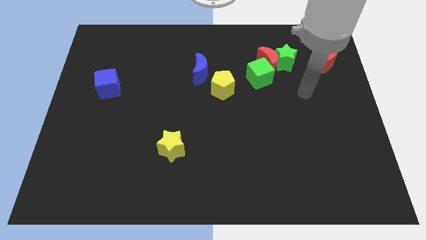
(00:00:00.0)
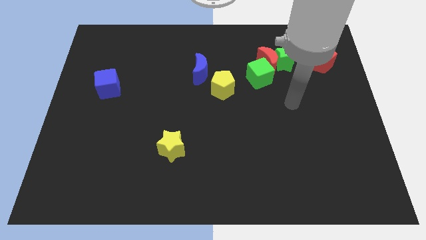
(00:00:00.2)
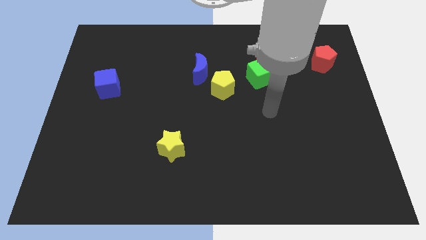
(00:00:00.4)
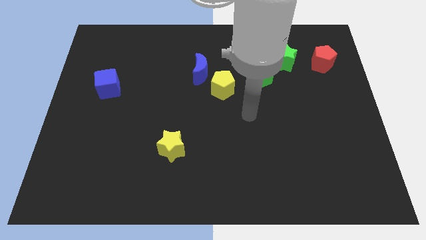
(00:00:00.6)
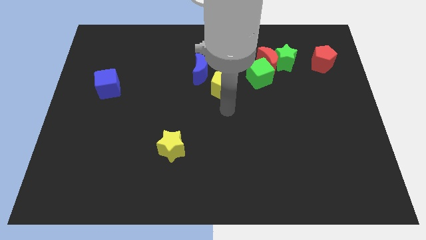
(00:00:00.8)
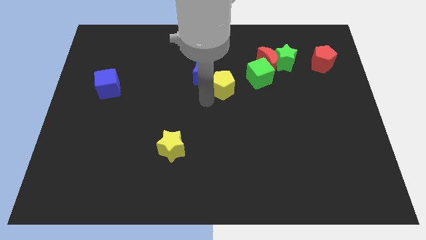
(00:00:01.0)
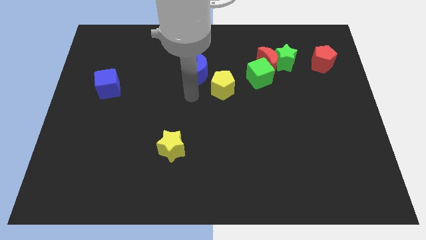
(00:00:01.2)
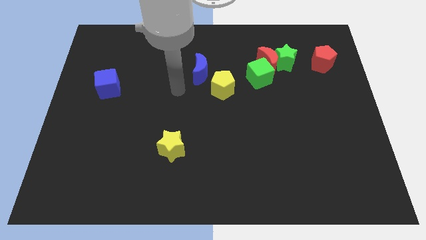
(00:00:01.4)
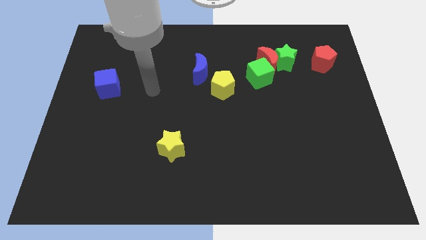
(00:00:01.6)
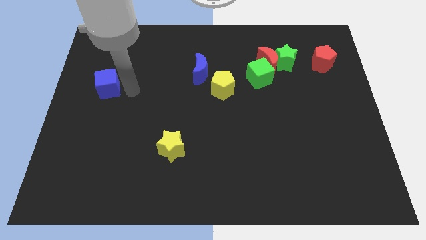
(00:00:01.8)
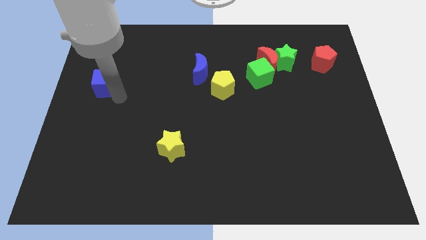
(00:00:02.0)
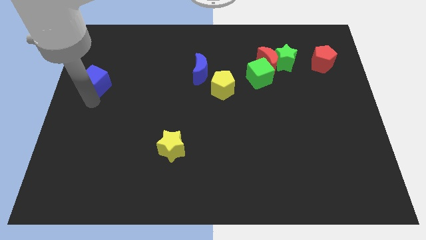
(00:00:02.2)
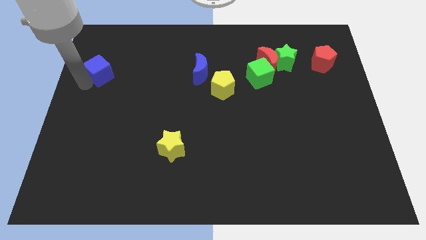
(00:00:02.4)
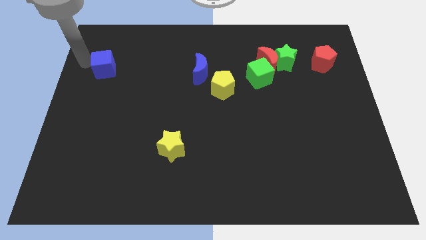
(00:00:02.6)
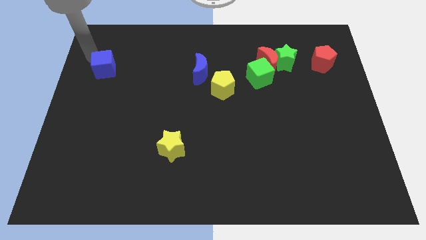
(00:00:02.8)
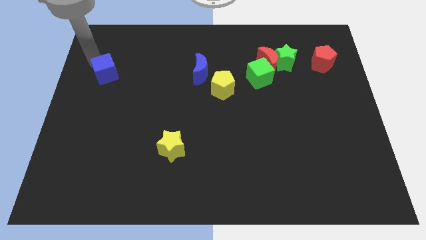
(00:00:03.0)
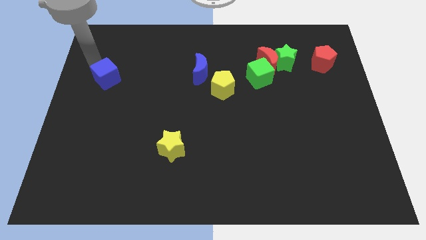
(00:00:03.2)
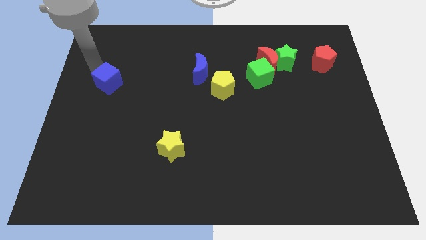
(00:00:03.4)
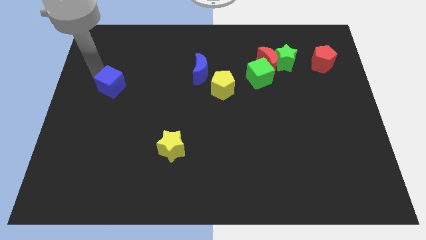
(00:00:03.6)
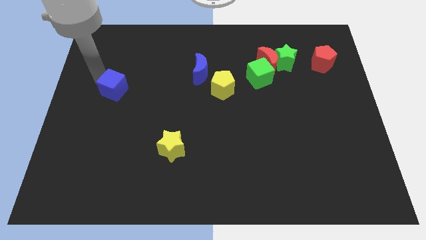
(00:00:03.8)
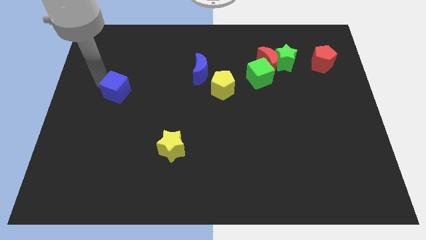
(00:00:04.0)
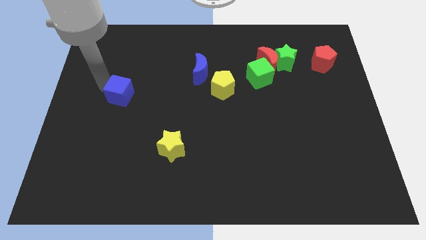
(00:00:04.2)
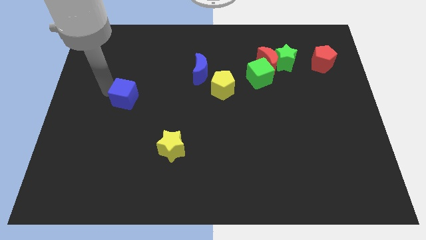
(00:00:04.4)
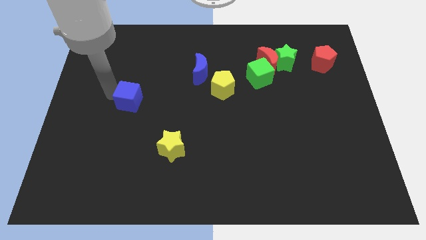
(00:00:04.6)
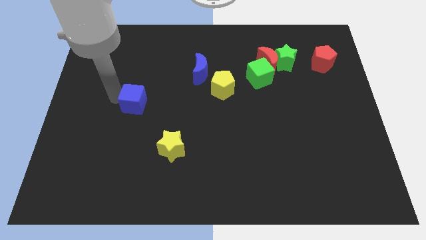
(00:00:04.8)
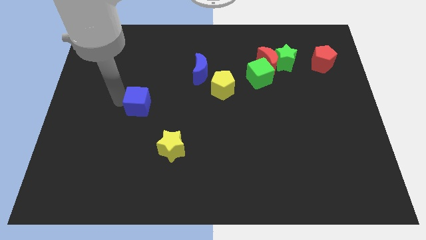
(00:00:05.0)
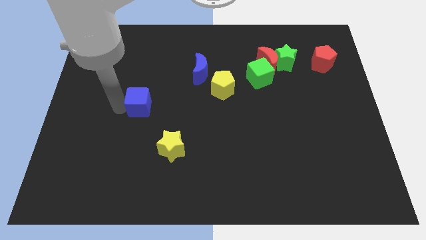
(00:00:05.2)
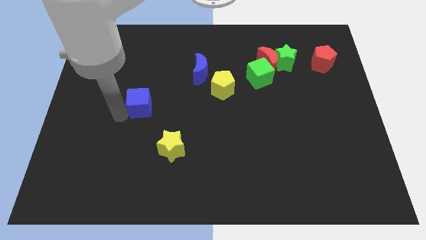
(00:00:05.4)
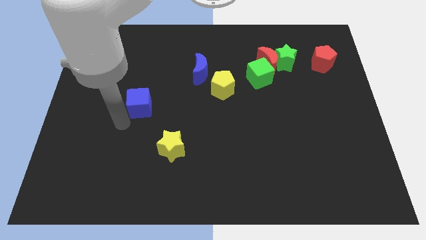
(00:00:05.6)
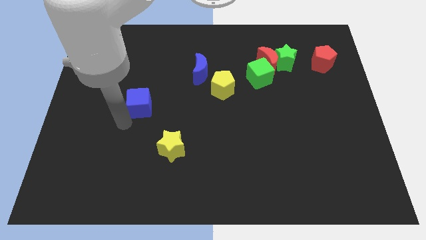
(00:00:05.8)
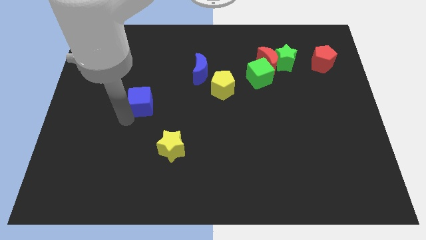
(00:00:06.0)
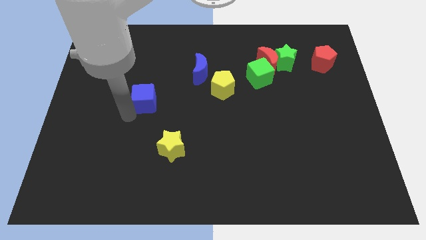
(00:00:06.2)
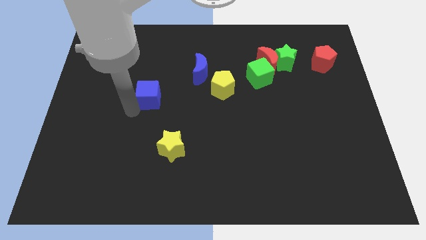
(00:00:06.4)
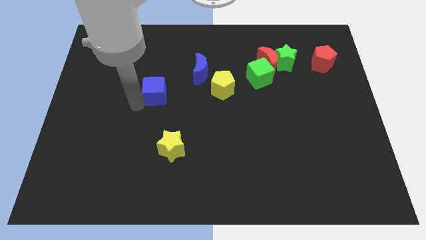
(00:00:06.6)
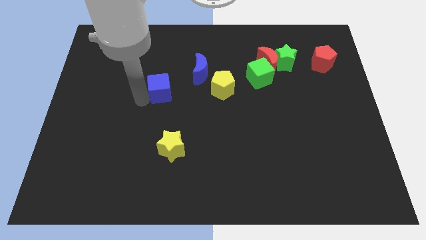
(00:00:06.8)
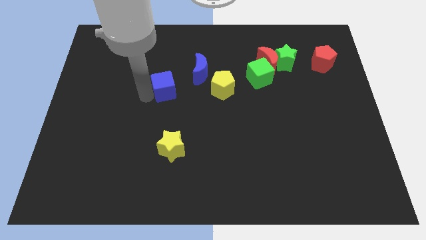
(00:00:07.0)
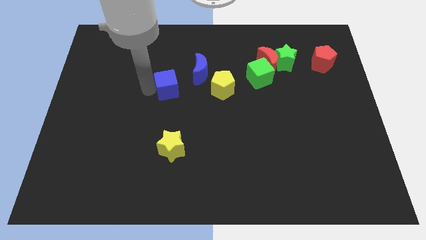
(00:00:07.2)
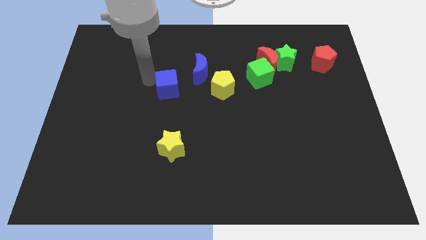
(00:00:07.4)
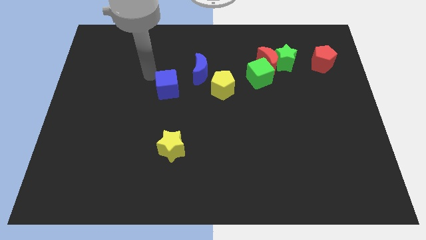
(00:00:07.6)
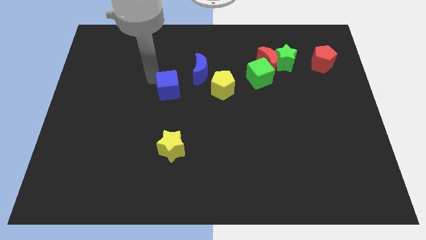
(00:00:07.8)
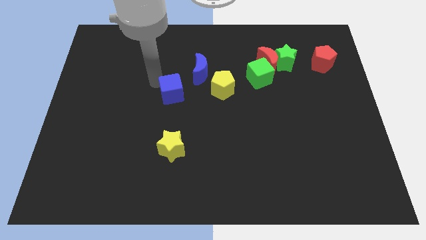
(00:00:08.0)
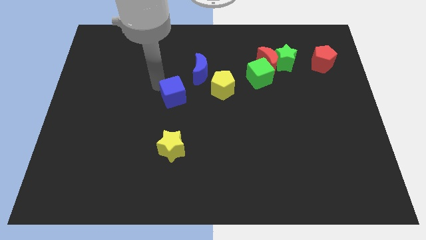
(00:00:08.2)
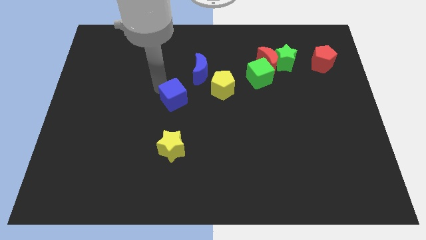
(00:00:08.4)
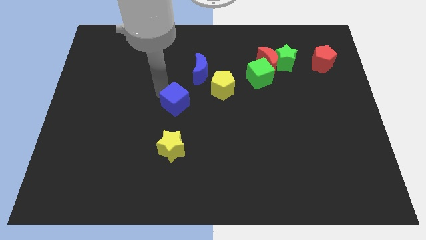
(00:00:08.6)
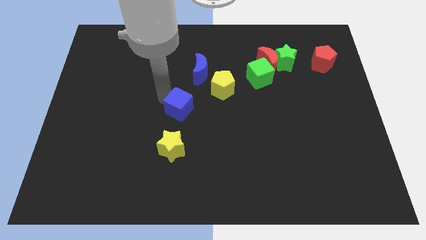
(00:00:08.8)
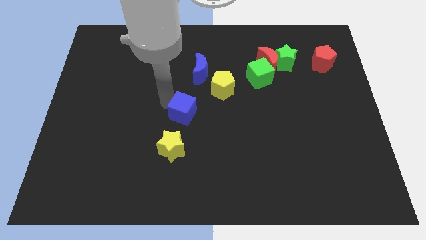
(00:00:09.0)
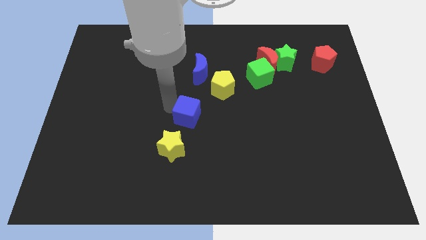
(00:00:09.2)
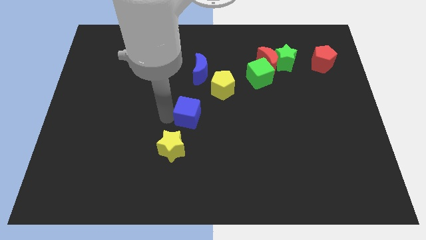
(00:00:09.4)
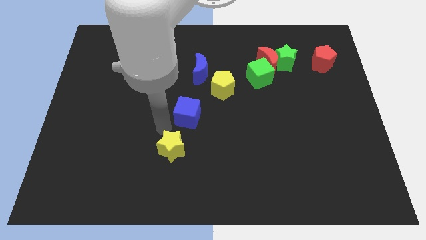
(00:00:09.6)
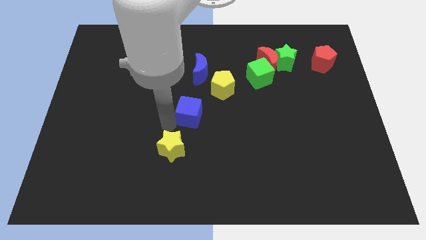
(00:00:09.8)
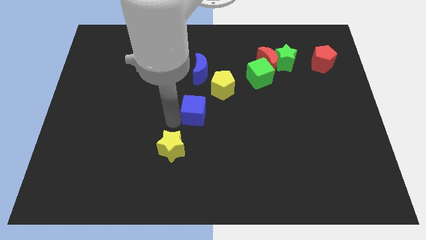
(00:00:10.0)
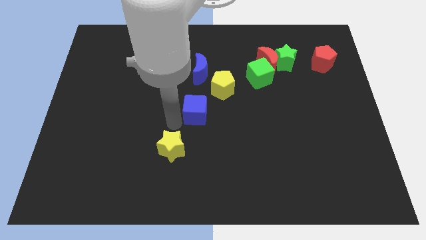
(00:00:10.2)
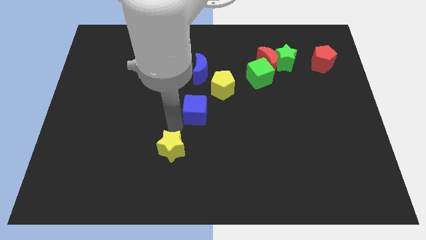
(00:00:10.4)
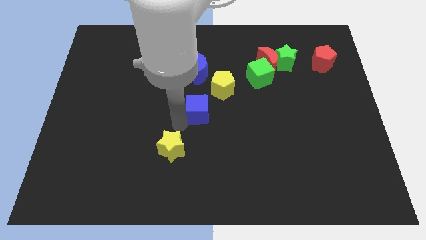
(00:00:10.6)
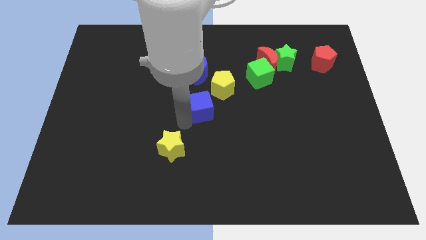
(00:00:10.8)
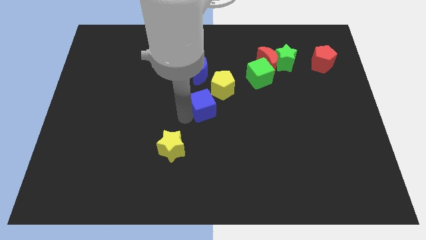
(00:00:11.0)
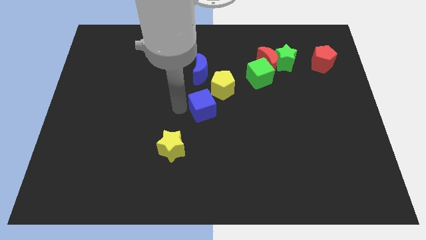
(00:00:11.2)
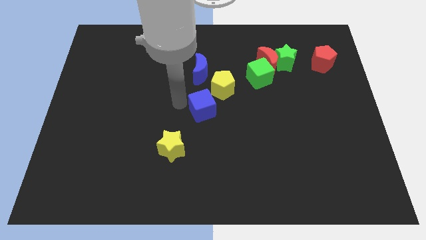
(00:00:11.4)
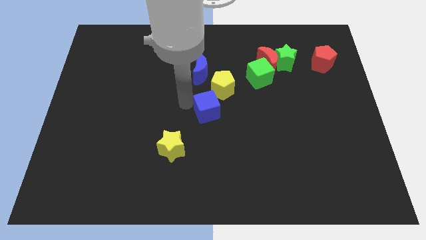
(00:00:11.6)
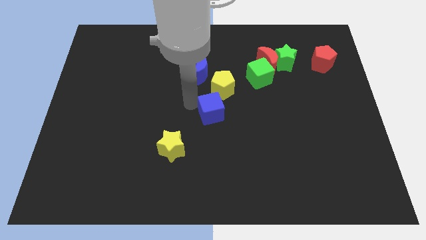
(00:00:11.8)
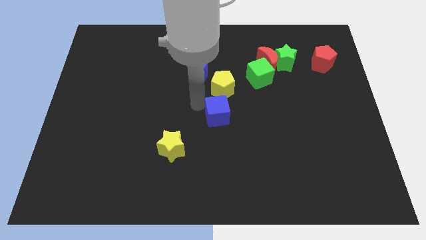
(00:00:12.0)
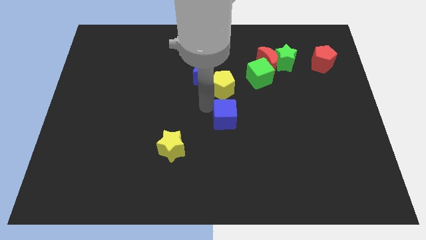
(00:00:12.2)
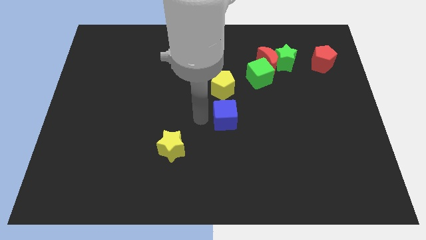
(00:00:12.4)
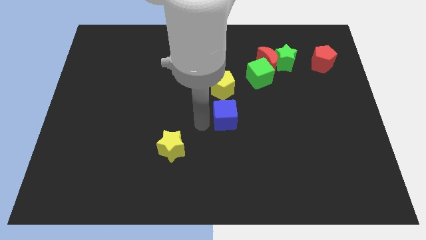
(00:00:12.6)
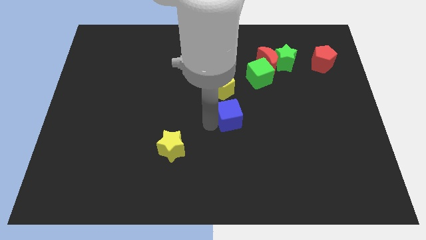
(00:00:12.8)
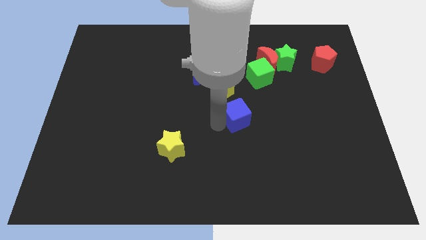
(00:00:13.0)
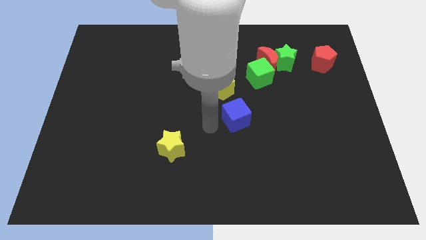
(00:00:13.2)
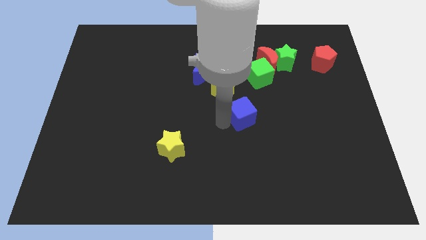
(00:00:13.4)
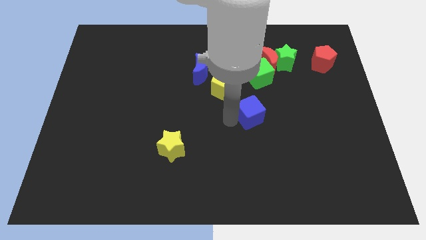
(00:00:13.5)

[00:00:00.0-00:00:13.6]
put the blue cube to the bottom side of the green cube
